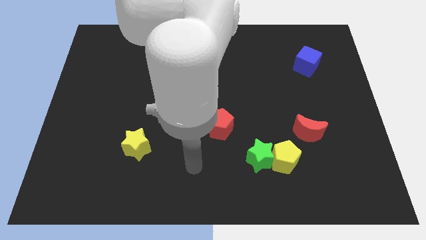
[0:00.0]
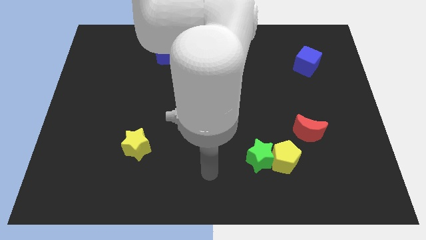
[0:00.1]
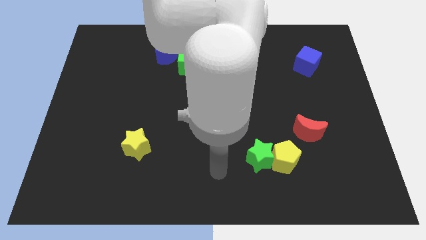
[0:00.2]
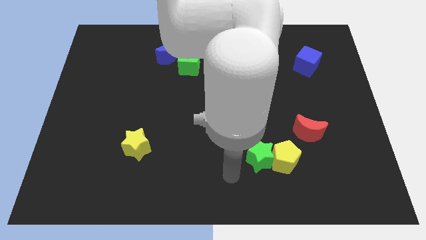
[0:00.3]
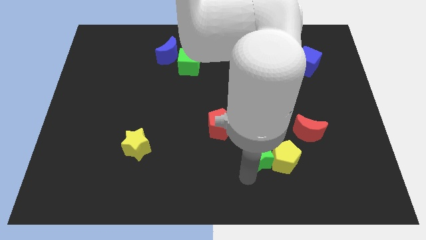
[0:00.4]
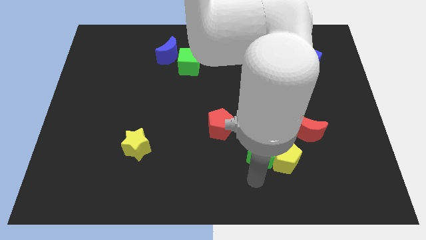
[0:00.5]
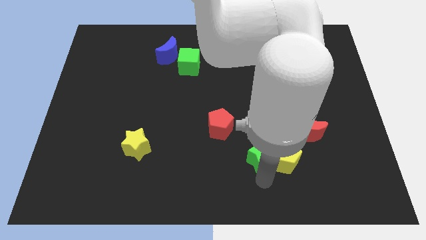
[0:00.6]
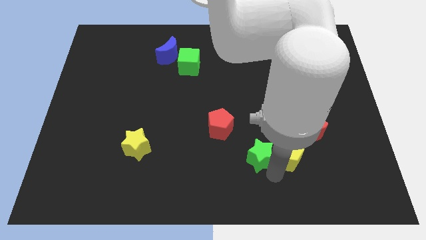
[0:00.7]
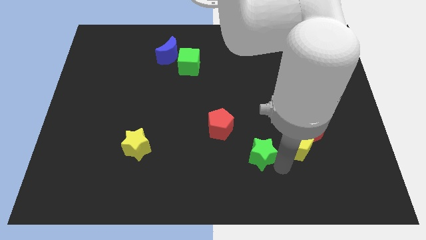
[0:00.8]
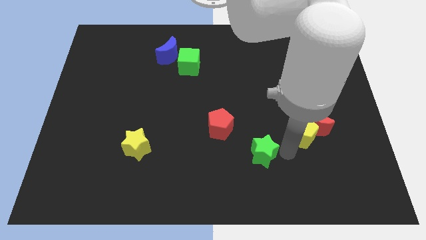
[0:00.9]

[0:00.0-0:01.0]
move the green star away from the yellow pentagon

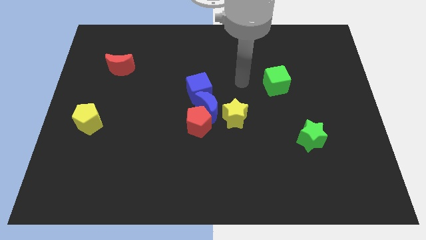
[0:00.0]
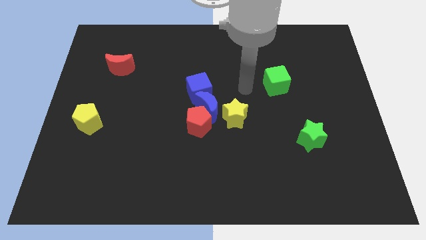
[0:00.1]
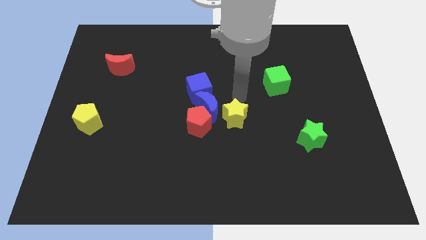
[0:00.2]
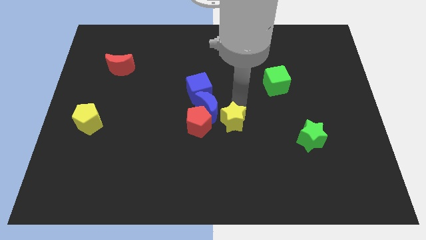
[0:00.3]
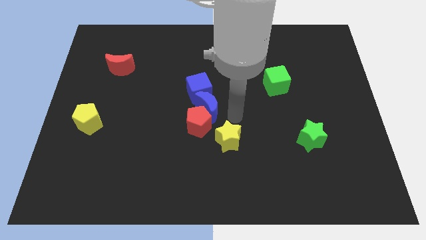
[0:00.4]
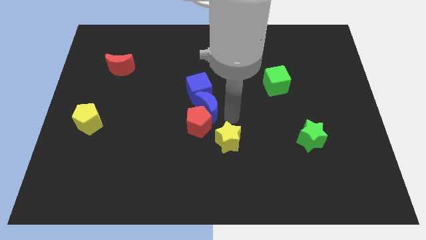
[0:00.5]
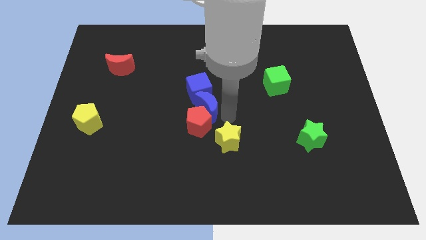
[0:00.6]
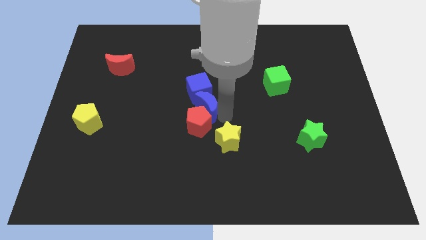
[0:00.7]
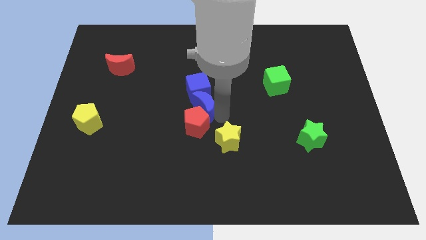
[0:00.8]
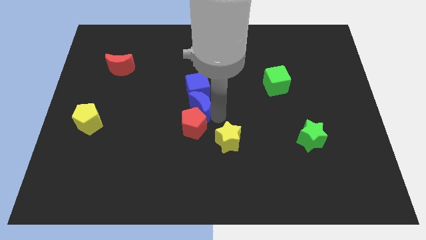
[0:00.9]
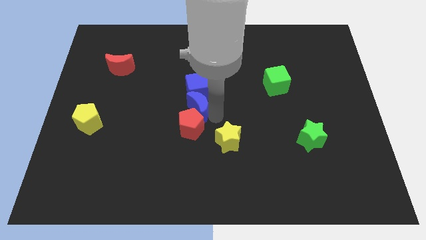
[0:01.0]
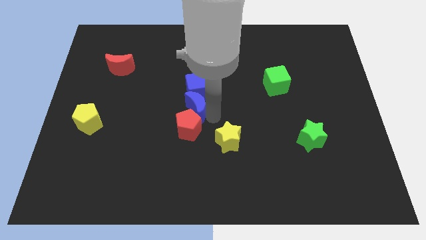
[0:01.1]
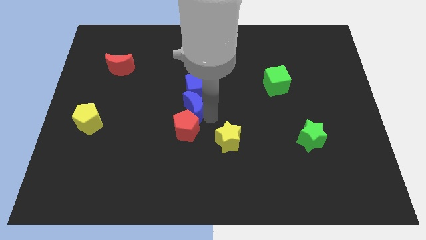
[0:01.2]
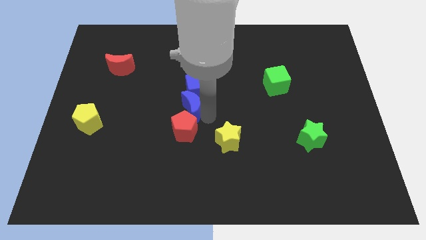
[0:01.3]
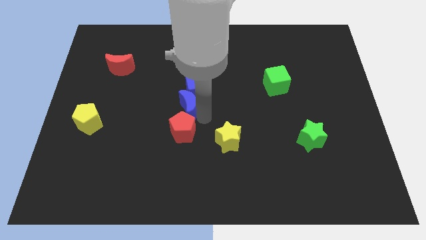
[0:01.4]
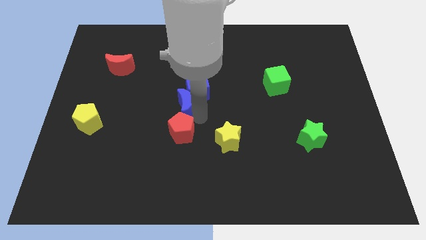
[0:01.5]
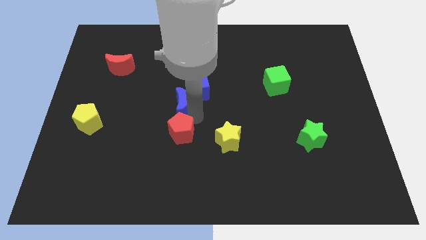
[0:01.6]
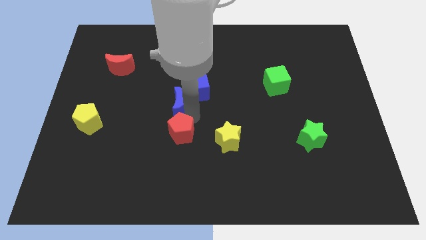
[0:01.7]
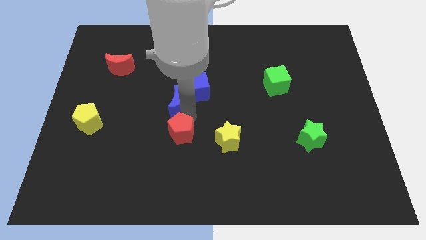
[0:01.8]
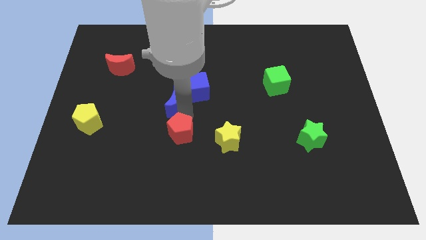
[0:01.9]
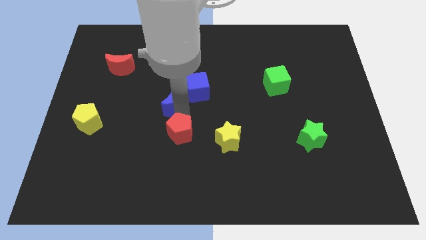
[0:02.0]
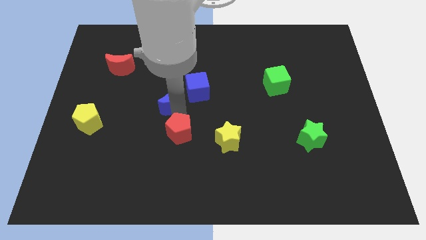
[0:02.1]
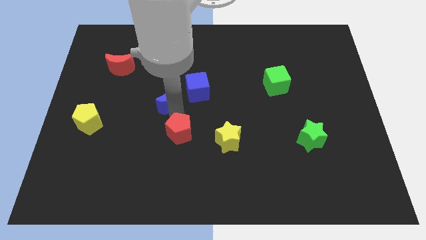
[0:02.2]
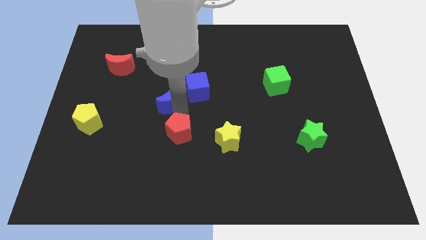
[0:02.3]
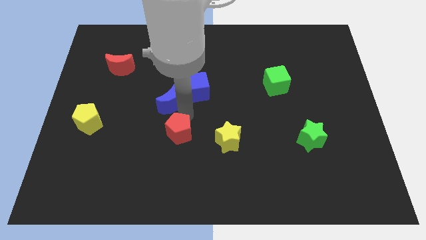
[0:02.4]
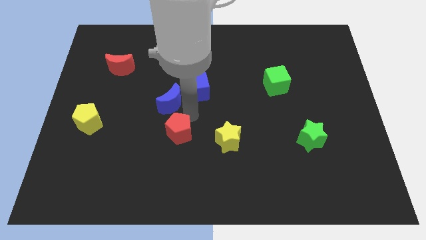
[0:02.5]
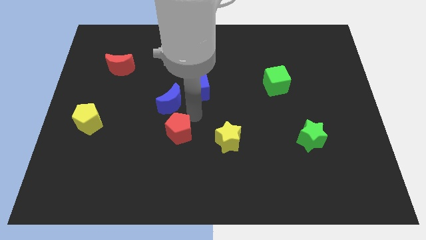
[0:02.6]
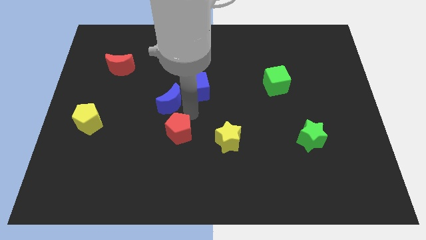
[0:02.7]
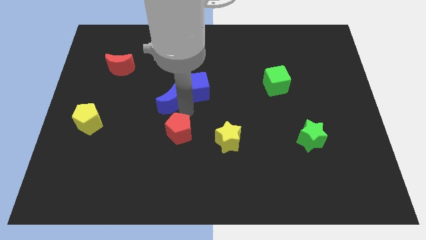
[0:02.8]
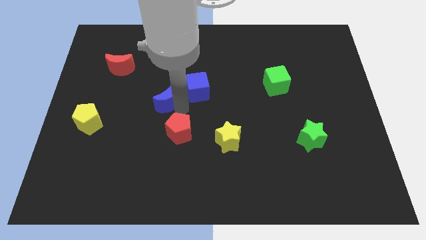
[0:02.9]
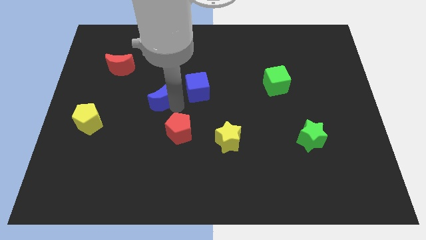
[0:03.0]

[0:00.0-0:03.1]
separate the blue moon from the red pentagon, blue cube, and yellow star

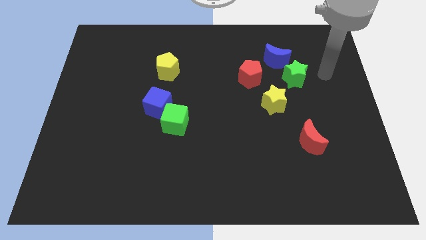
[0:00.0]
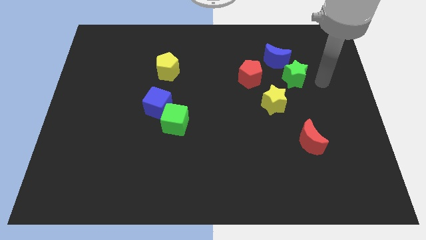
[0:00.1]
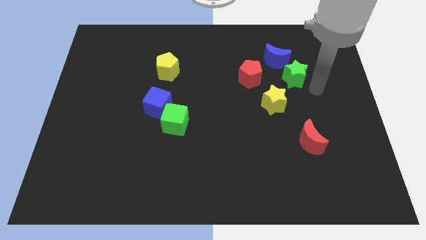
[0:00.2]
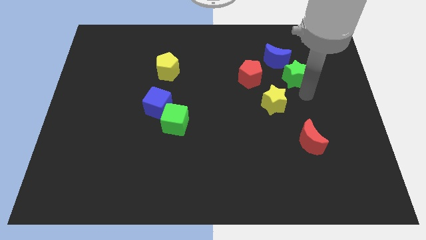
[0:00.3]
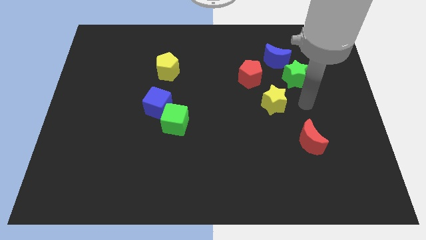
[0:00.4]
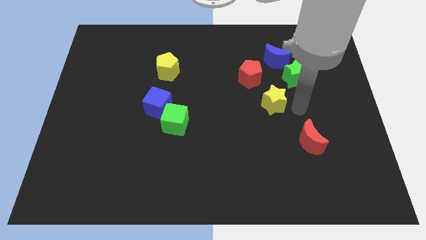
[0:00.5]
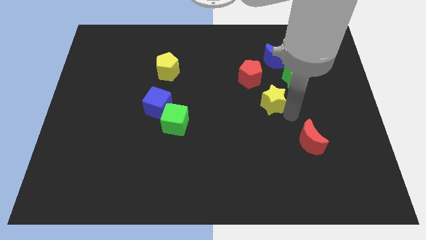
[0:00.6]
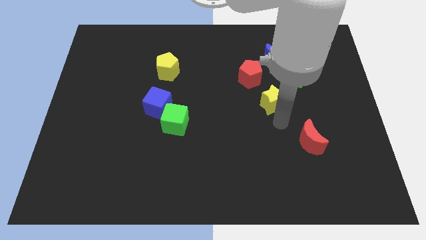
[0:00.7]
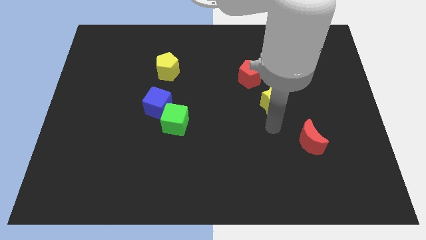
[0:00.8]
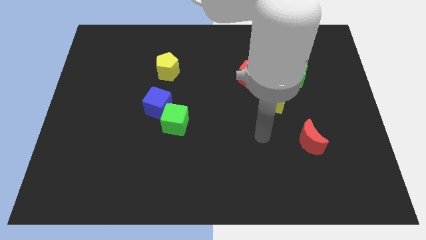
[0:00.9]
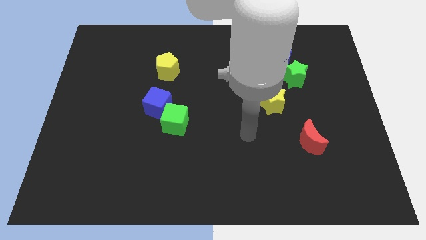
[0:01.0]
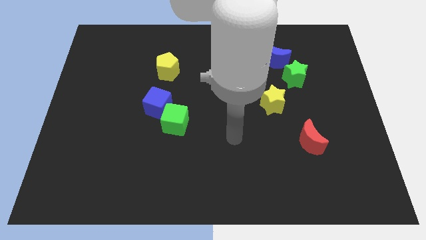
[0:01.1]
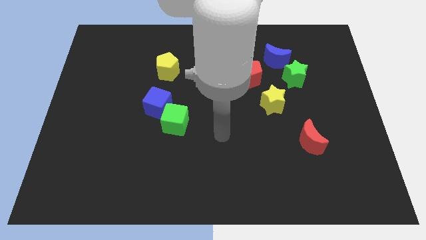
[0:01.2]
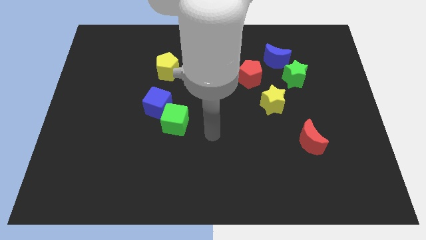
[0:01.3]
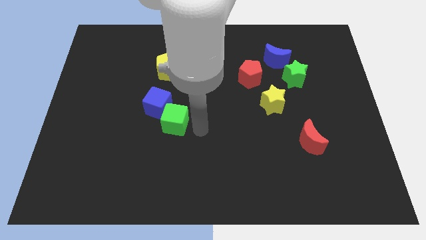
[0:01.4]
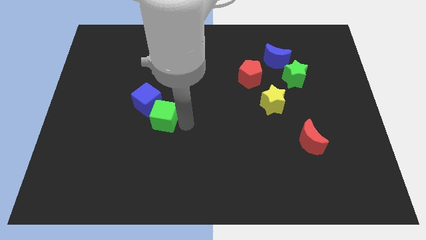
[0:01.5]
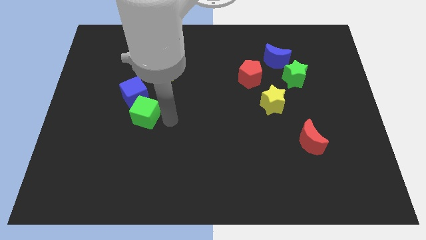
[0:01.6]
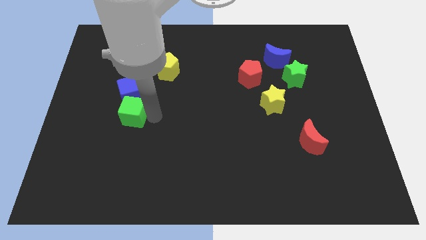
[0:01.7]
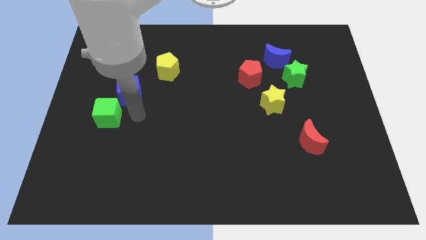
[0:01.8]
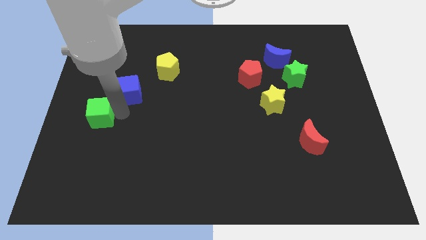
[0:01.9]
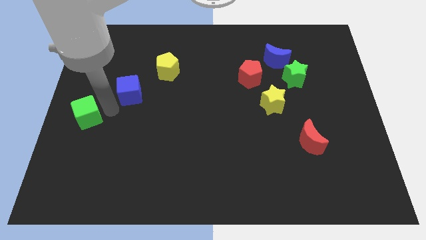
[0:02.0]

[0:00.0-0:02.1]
pull the blue cube apart from the green cube

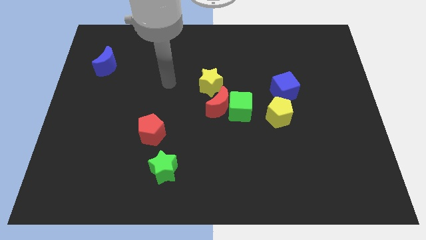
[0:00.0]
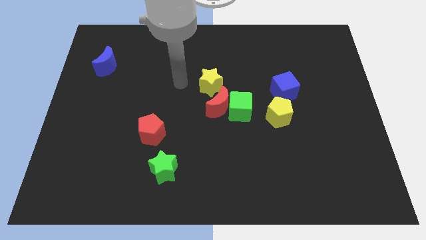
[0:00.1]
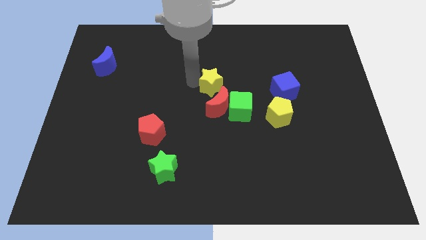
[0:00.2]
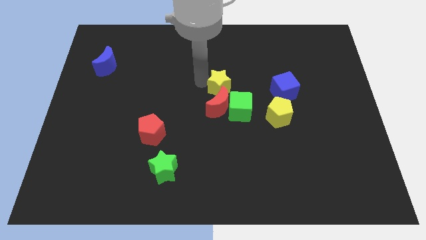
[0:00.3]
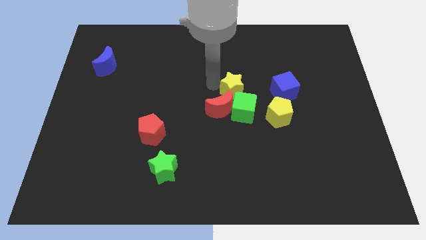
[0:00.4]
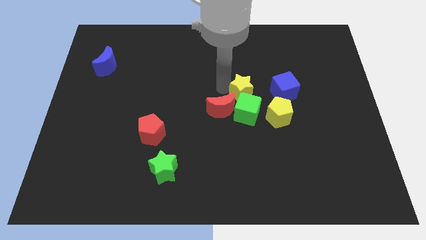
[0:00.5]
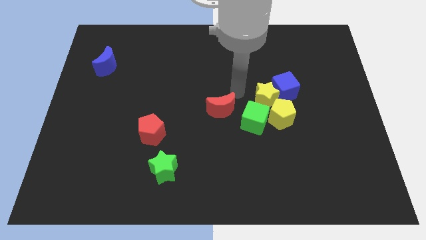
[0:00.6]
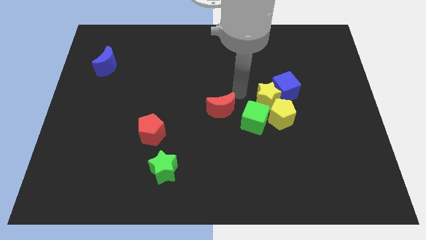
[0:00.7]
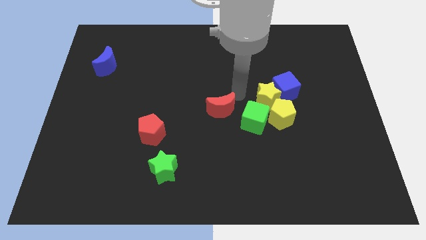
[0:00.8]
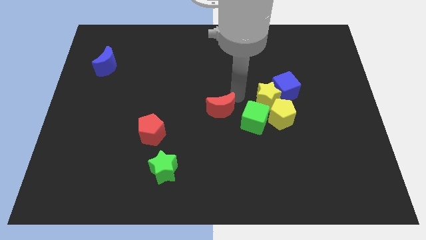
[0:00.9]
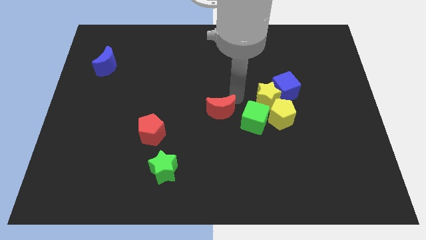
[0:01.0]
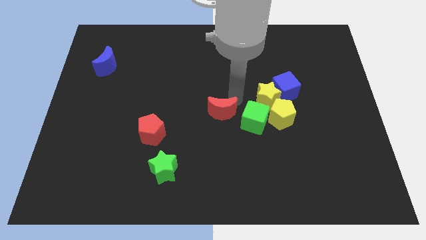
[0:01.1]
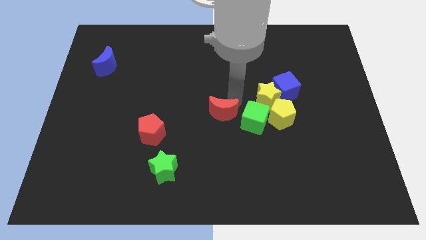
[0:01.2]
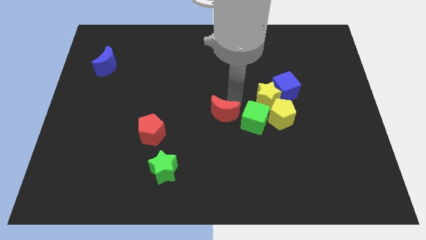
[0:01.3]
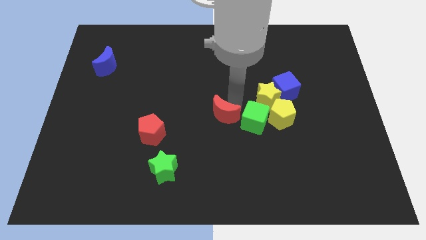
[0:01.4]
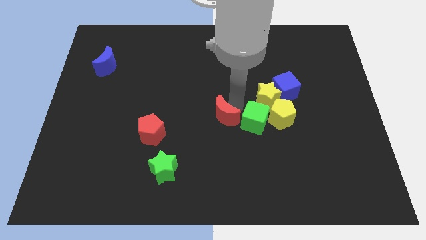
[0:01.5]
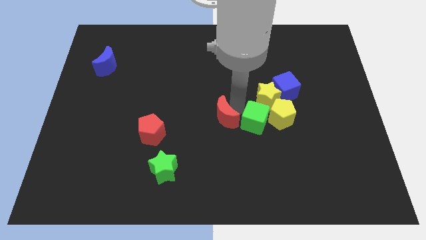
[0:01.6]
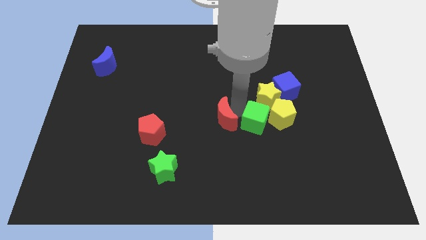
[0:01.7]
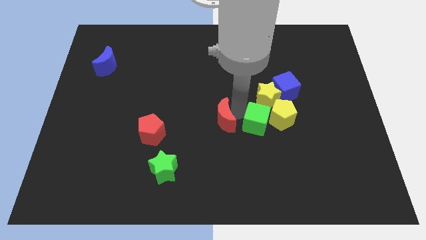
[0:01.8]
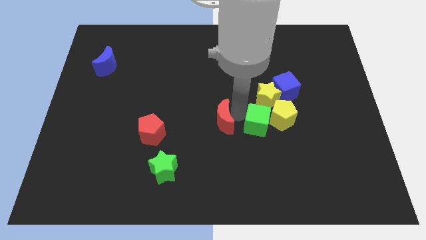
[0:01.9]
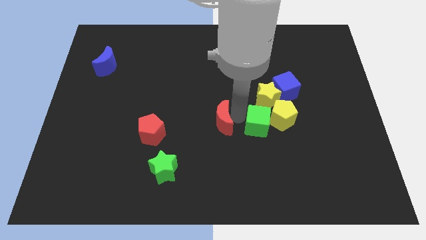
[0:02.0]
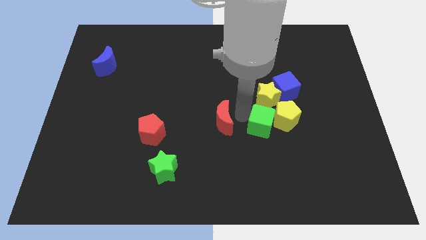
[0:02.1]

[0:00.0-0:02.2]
move the red moon away from the green cube and yellow star

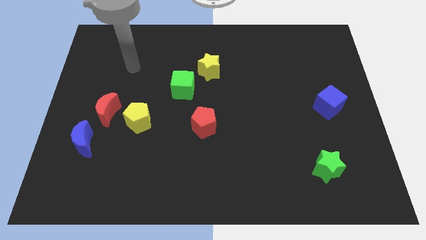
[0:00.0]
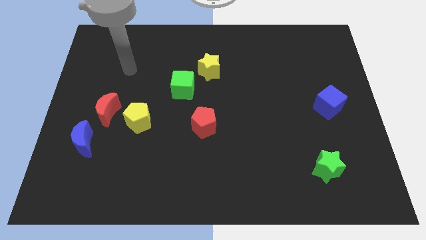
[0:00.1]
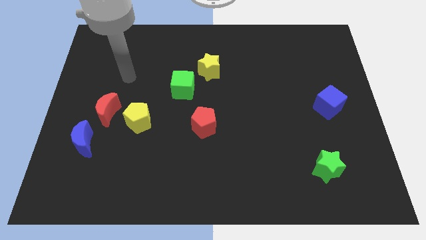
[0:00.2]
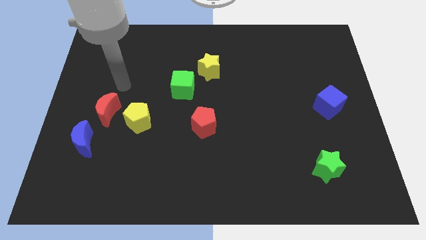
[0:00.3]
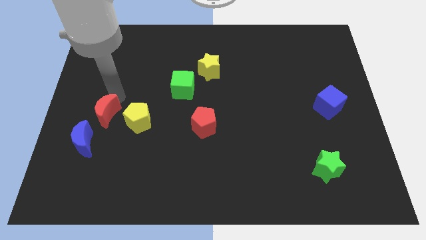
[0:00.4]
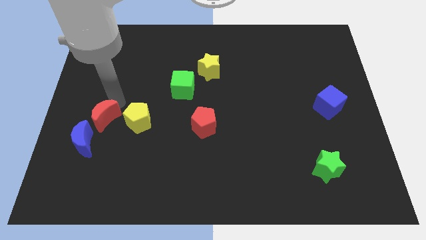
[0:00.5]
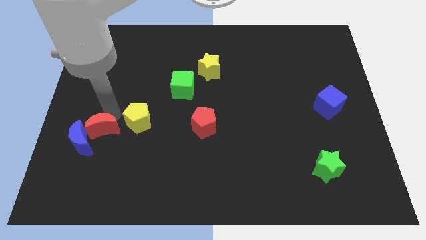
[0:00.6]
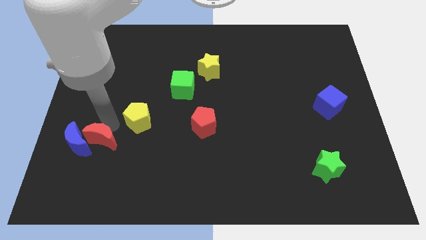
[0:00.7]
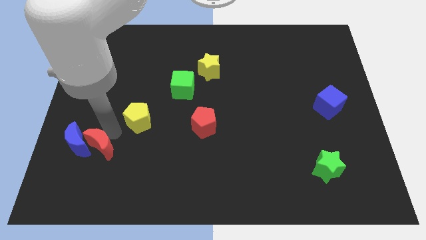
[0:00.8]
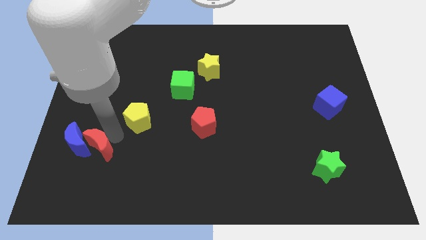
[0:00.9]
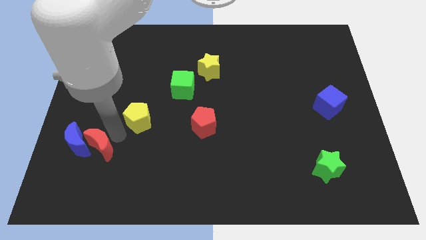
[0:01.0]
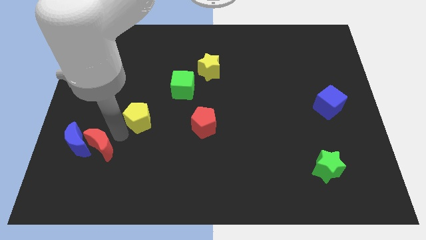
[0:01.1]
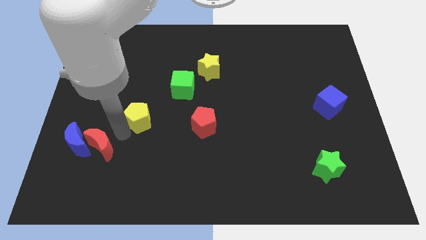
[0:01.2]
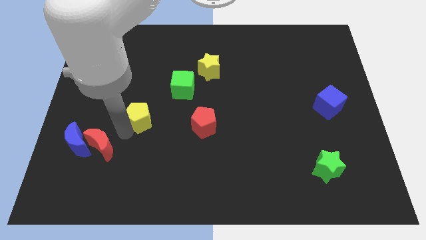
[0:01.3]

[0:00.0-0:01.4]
separate the yellow pentagon from the red moon
